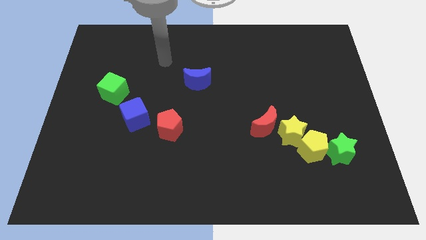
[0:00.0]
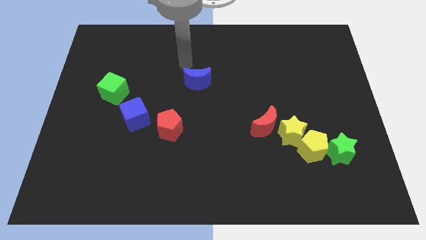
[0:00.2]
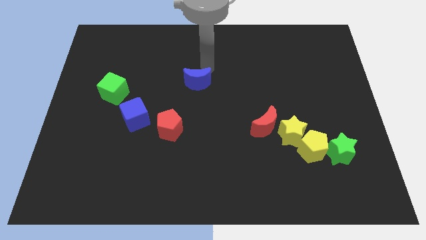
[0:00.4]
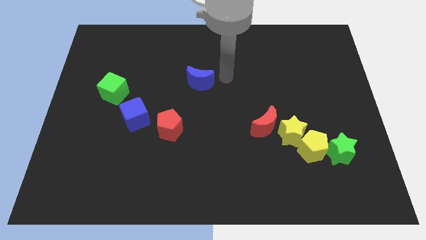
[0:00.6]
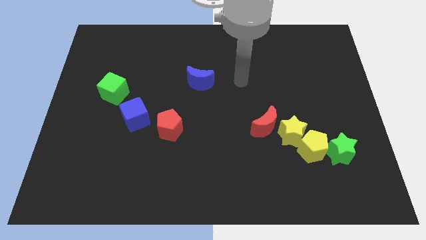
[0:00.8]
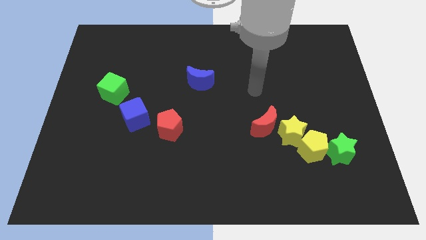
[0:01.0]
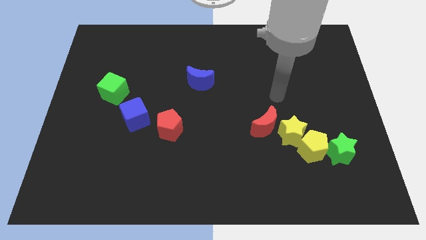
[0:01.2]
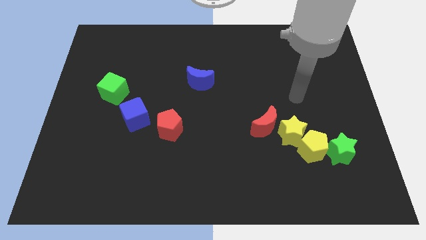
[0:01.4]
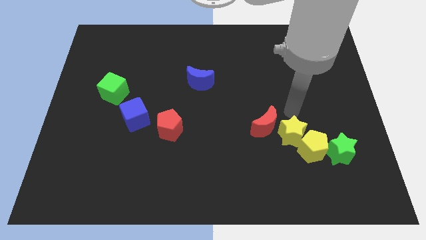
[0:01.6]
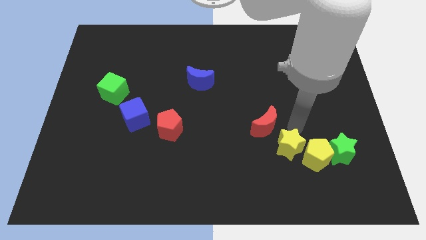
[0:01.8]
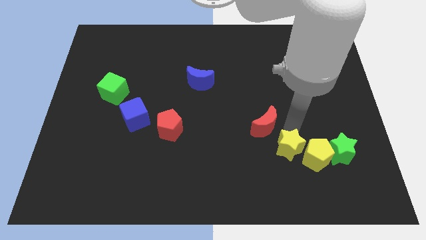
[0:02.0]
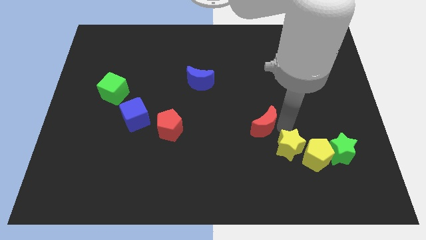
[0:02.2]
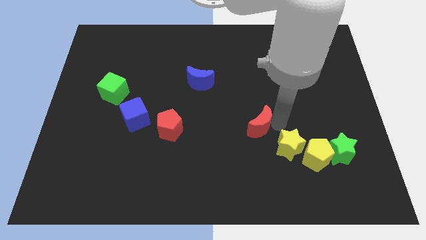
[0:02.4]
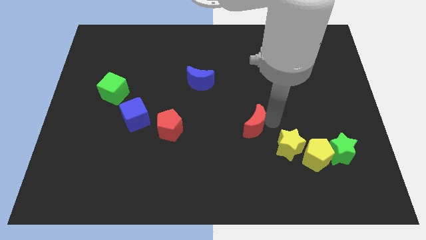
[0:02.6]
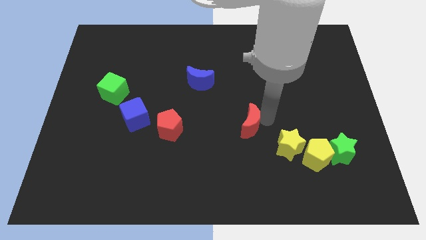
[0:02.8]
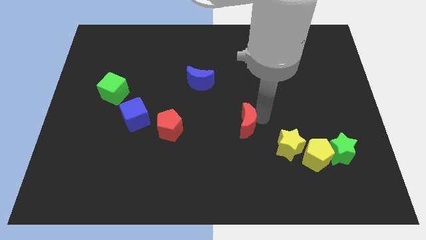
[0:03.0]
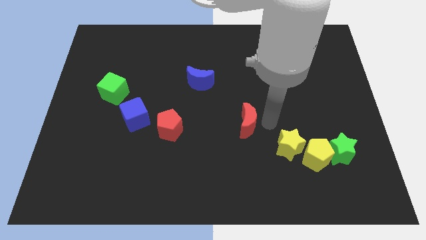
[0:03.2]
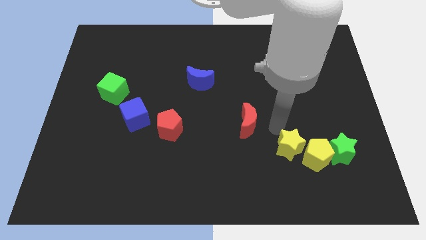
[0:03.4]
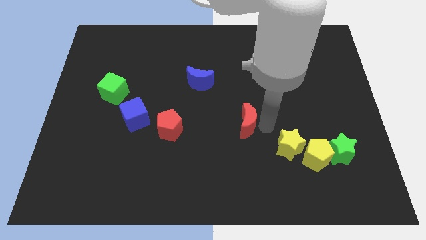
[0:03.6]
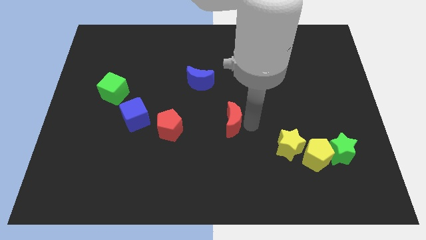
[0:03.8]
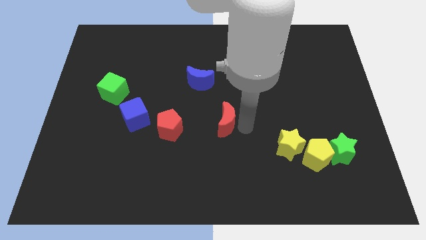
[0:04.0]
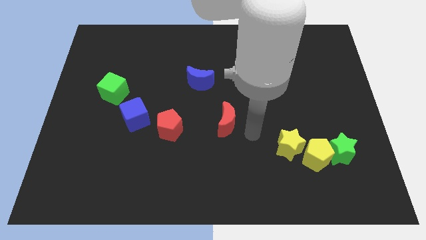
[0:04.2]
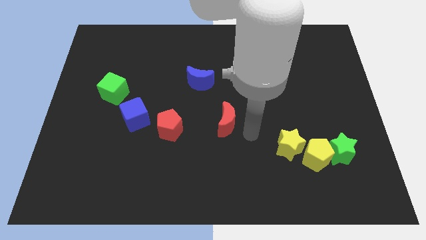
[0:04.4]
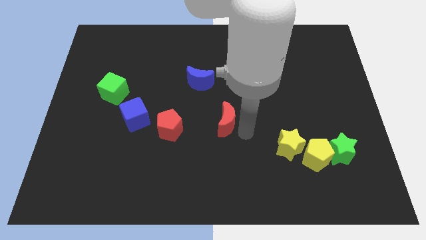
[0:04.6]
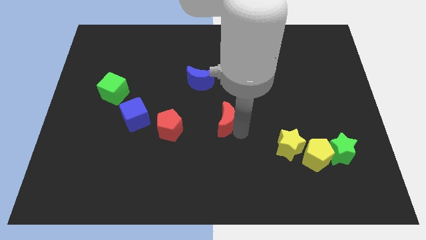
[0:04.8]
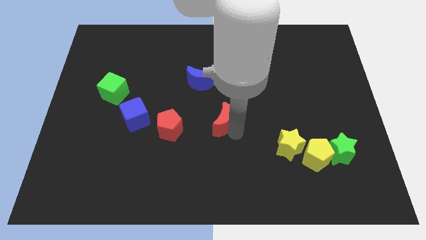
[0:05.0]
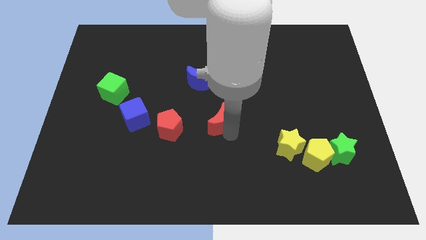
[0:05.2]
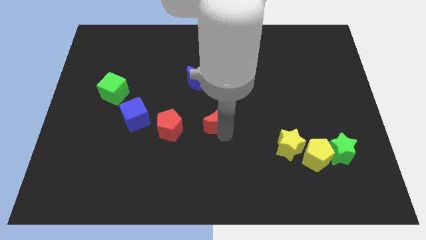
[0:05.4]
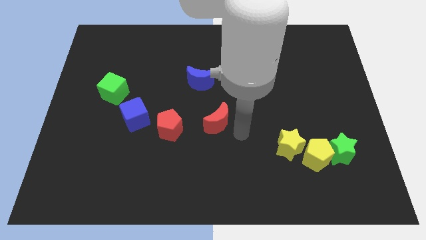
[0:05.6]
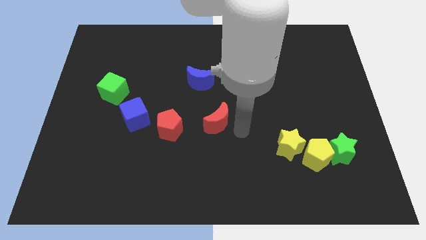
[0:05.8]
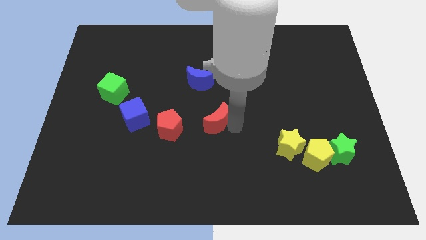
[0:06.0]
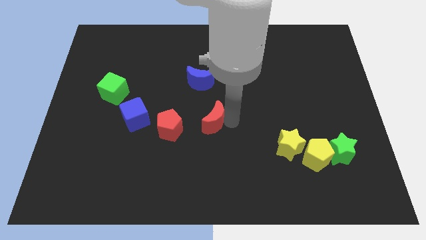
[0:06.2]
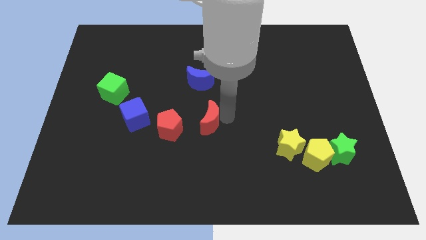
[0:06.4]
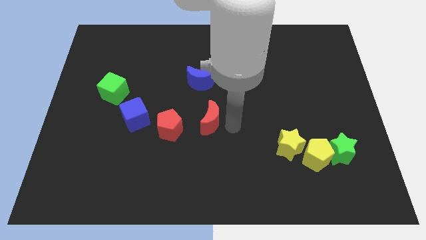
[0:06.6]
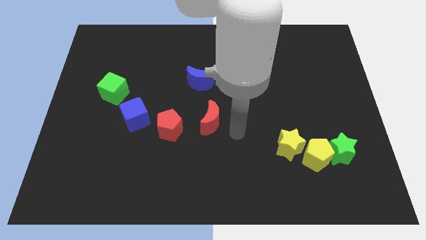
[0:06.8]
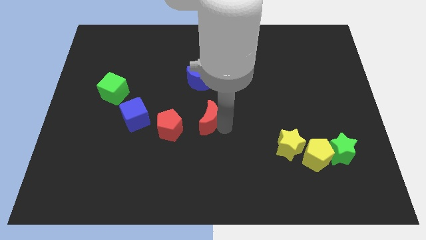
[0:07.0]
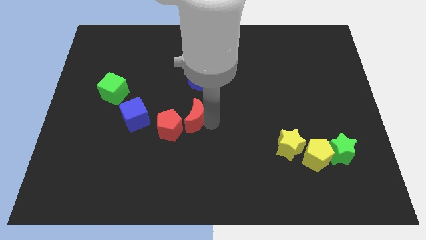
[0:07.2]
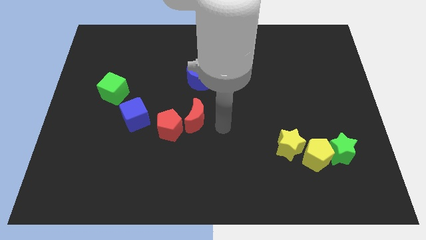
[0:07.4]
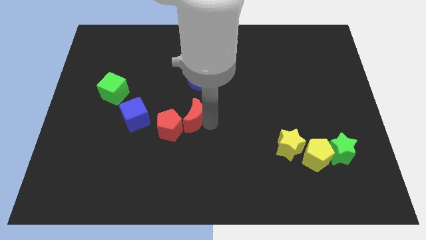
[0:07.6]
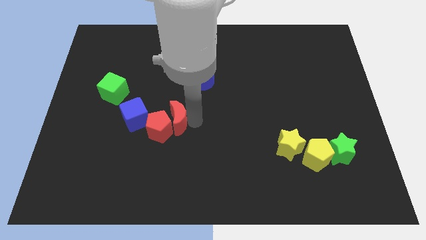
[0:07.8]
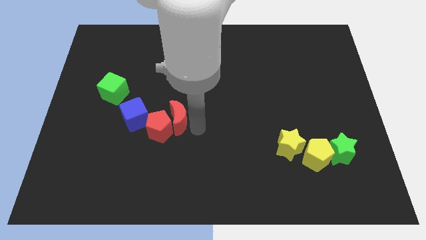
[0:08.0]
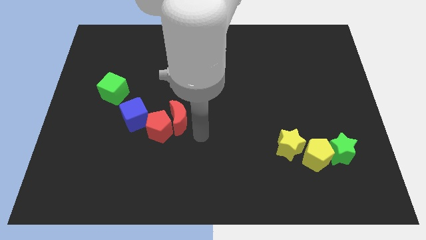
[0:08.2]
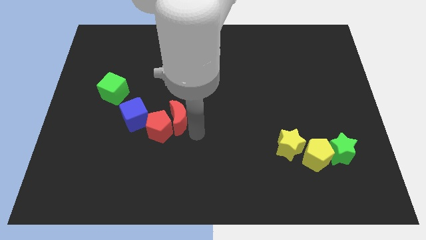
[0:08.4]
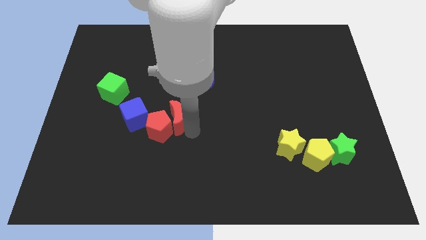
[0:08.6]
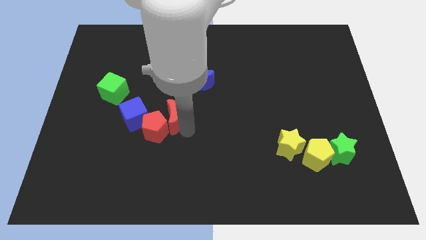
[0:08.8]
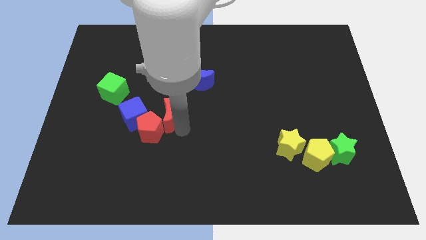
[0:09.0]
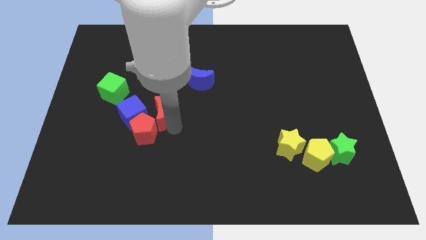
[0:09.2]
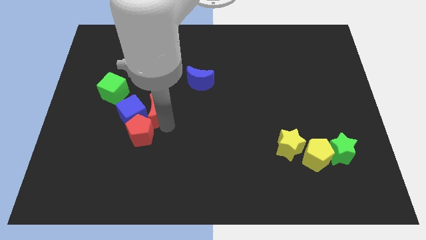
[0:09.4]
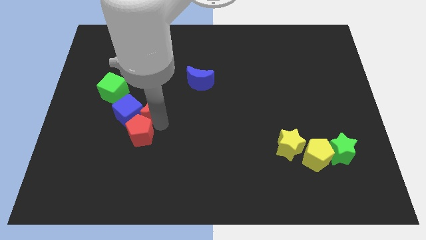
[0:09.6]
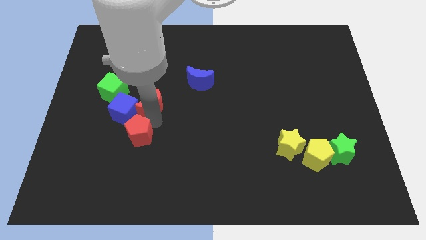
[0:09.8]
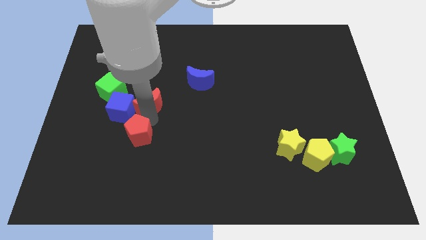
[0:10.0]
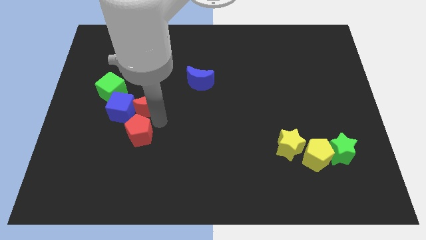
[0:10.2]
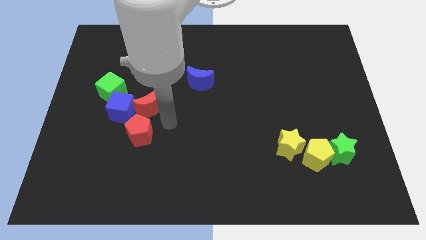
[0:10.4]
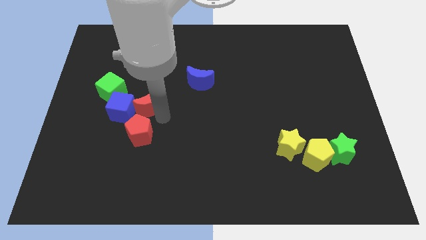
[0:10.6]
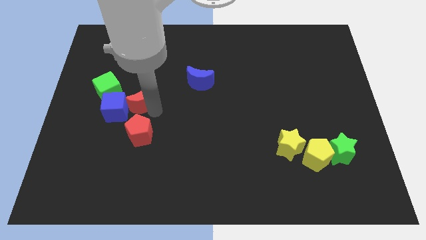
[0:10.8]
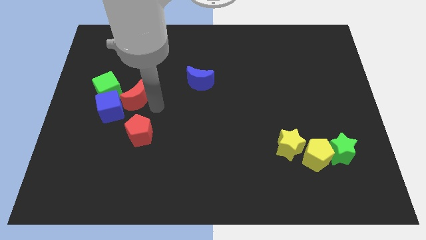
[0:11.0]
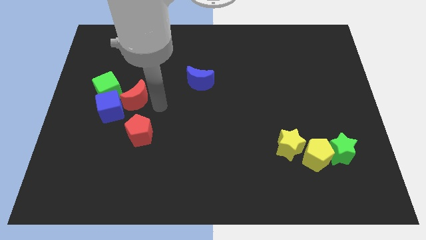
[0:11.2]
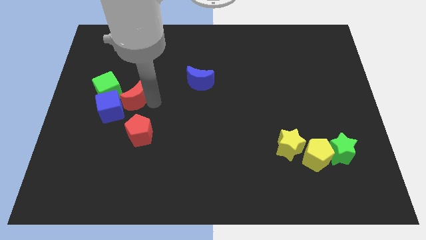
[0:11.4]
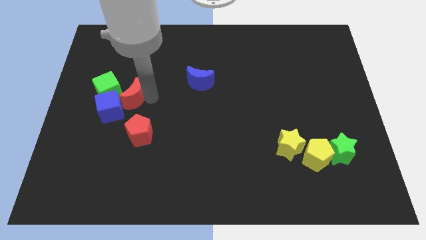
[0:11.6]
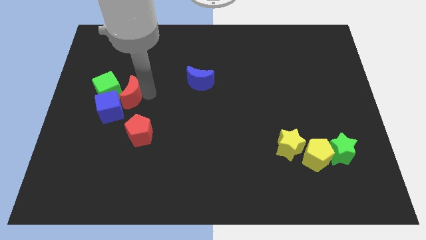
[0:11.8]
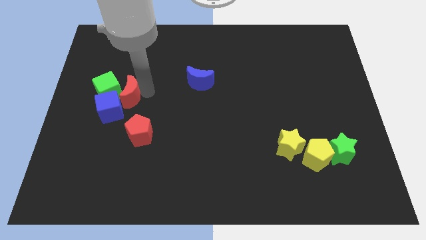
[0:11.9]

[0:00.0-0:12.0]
slide the red moon next to the green cube
